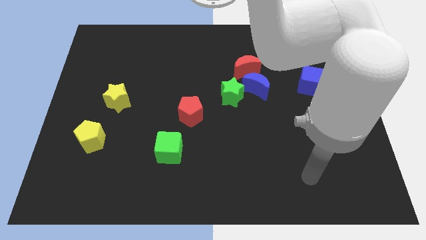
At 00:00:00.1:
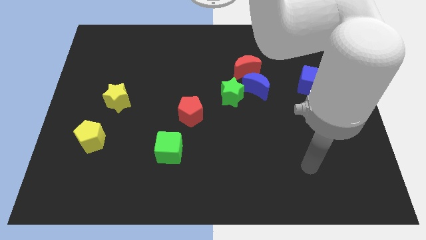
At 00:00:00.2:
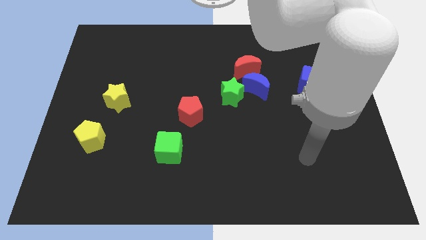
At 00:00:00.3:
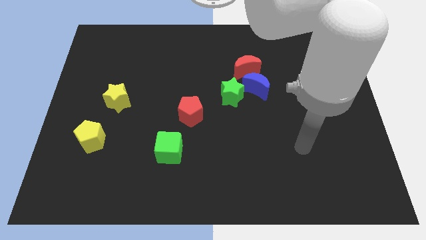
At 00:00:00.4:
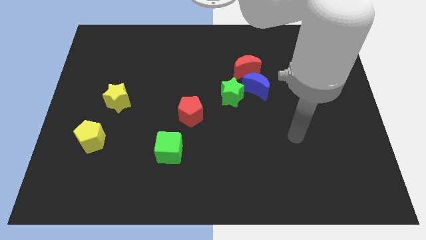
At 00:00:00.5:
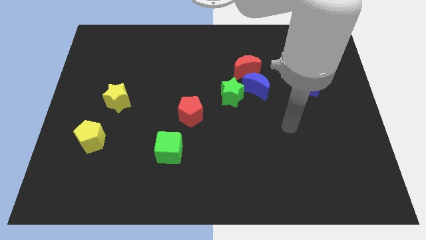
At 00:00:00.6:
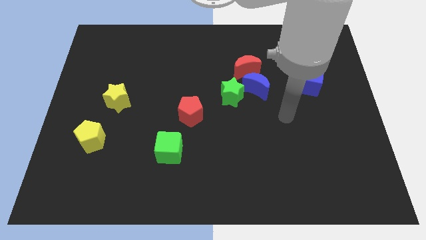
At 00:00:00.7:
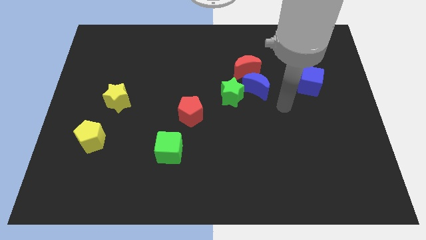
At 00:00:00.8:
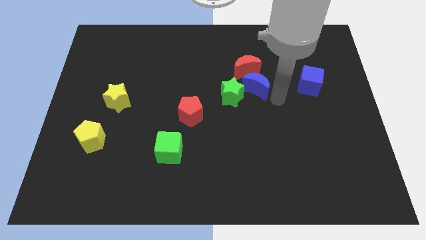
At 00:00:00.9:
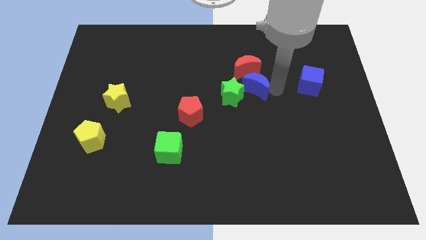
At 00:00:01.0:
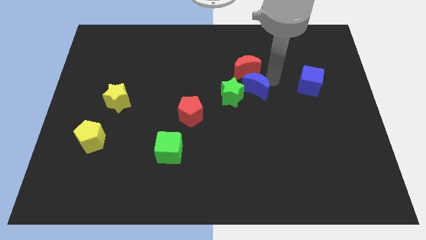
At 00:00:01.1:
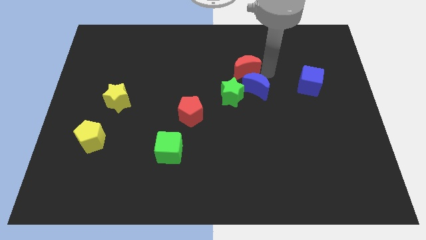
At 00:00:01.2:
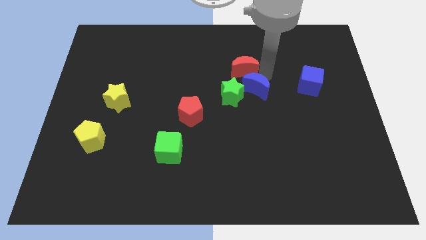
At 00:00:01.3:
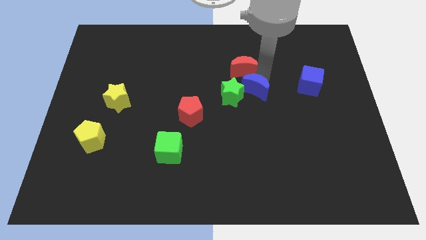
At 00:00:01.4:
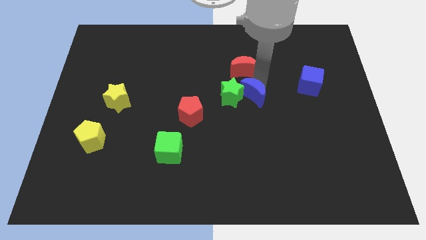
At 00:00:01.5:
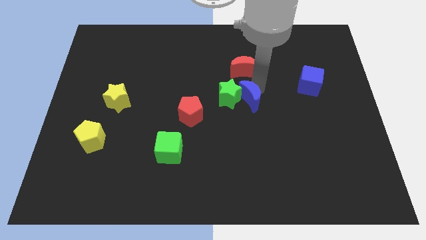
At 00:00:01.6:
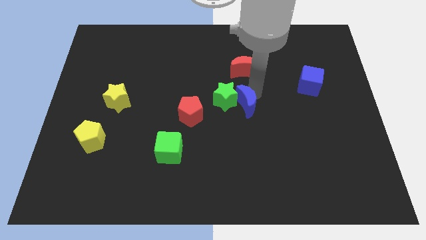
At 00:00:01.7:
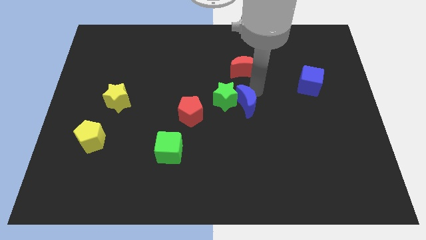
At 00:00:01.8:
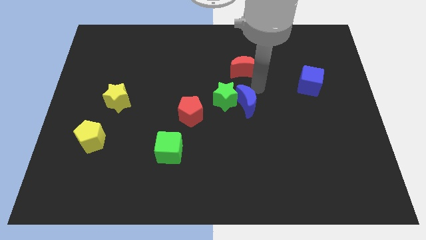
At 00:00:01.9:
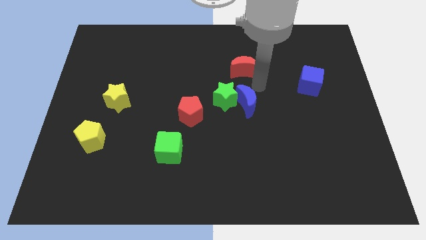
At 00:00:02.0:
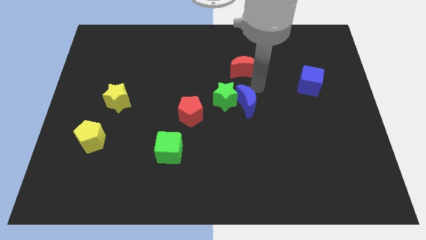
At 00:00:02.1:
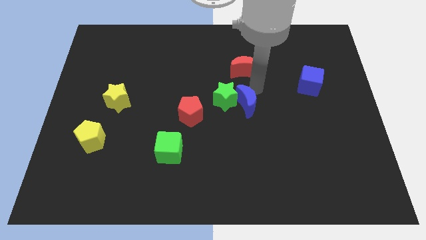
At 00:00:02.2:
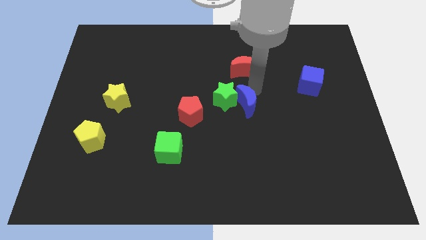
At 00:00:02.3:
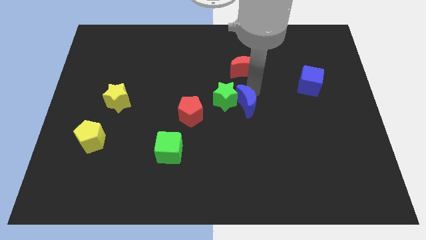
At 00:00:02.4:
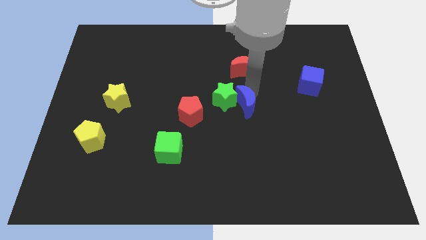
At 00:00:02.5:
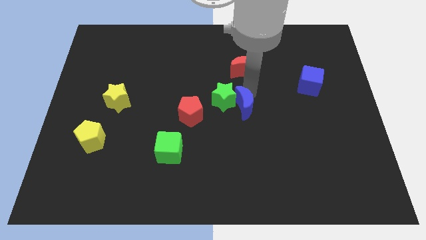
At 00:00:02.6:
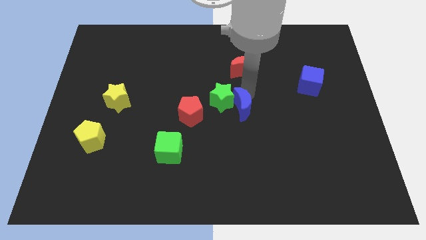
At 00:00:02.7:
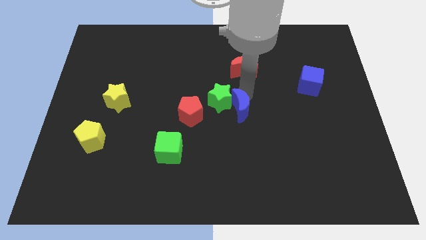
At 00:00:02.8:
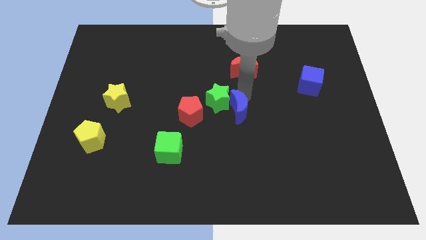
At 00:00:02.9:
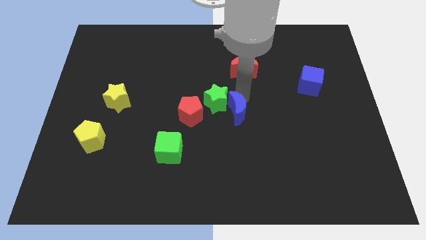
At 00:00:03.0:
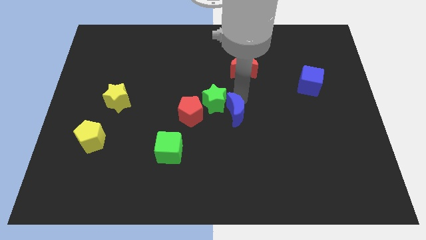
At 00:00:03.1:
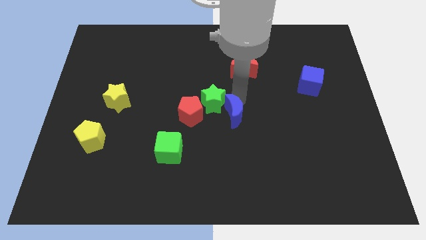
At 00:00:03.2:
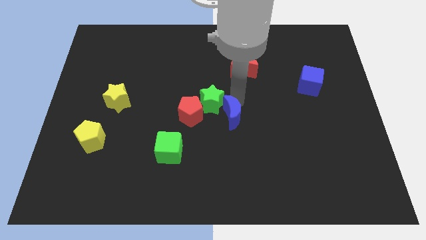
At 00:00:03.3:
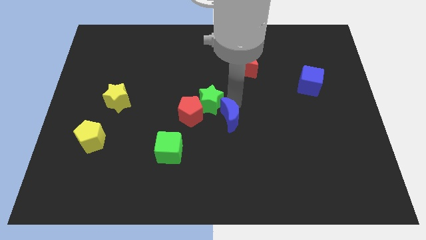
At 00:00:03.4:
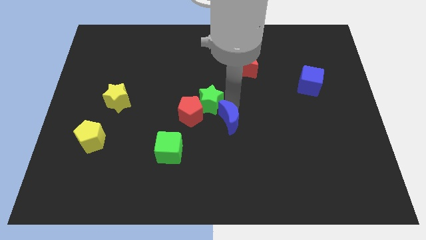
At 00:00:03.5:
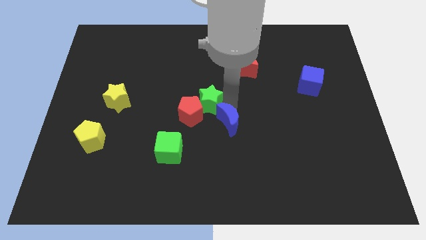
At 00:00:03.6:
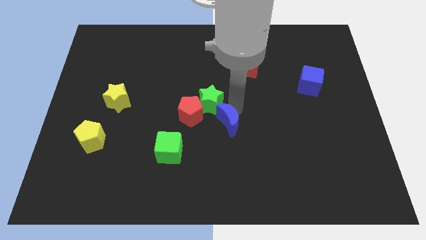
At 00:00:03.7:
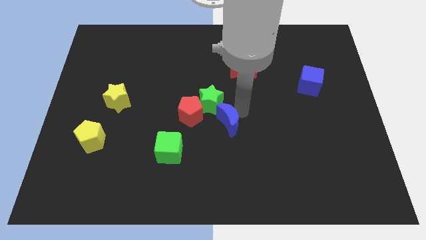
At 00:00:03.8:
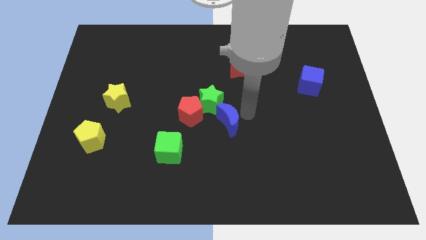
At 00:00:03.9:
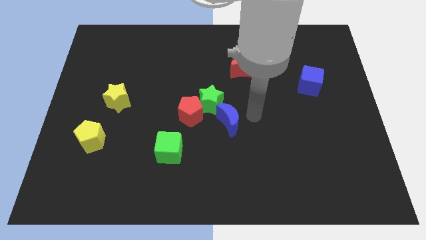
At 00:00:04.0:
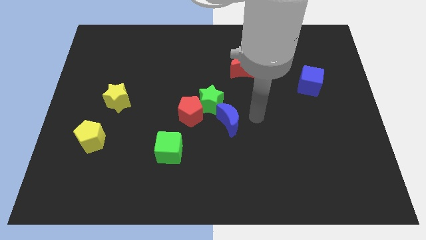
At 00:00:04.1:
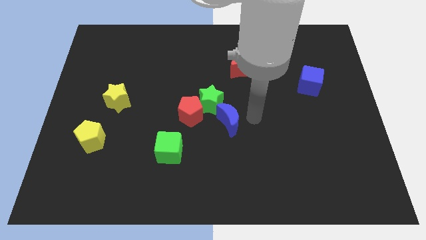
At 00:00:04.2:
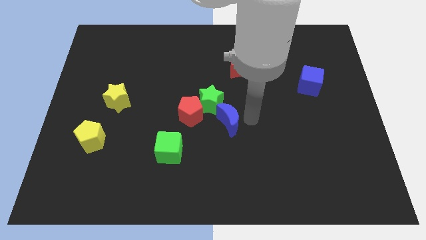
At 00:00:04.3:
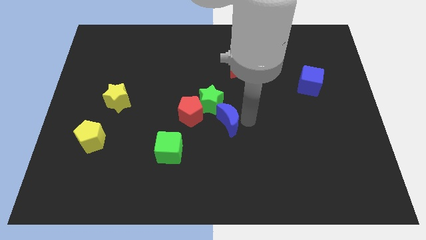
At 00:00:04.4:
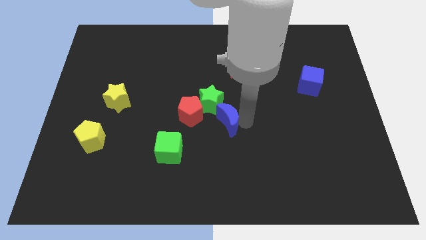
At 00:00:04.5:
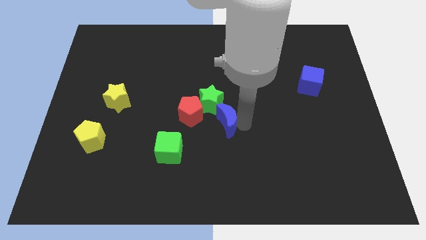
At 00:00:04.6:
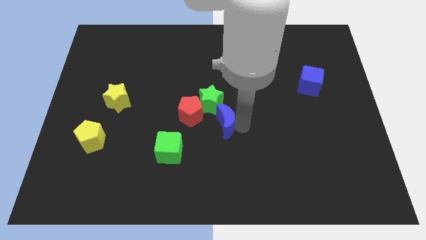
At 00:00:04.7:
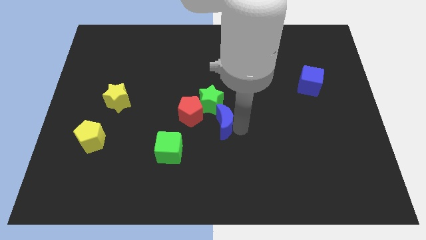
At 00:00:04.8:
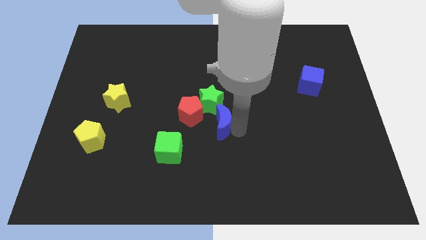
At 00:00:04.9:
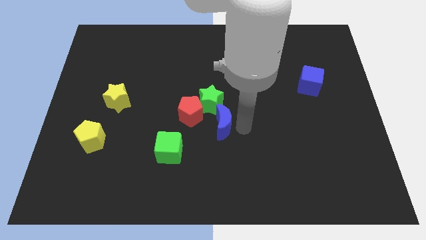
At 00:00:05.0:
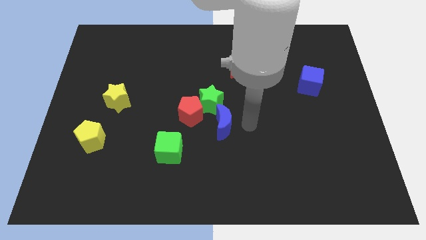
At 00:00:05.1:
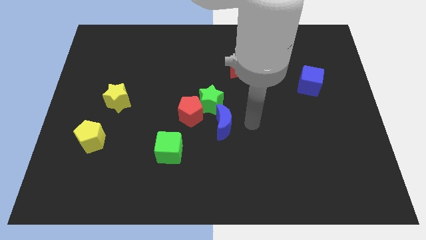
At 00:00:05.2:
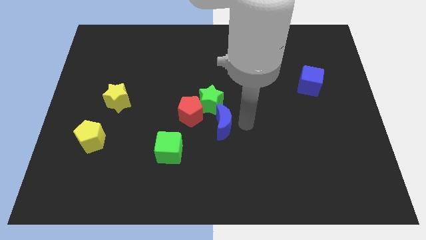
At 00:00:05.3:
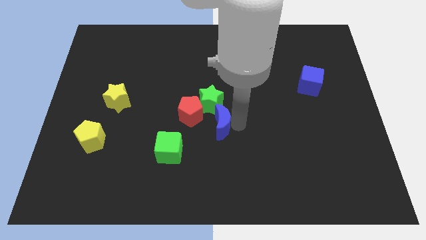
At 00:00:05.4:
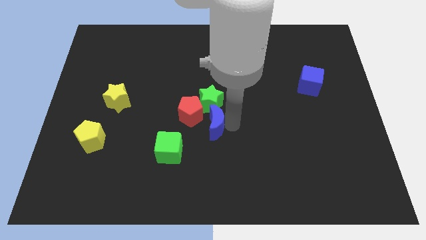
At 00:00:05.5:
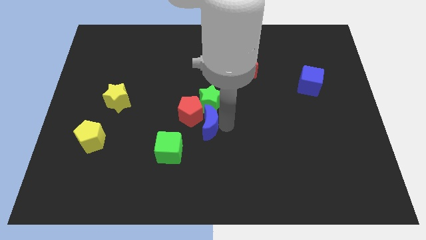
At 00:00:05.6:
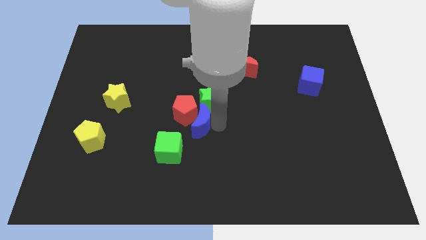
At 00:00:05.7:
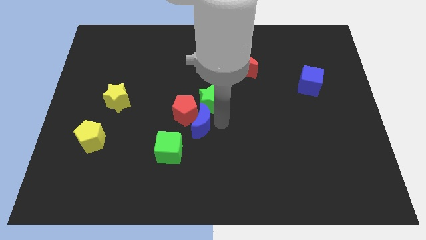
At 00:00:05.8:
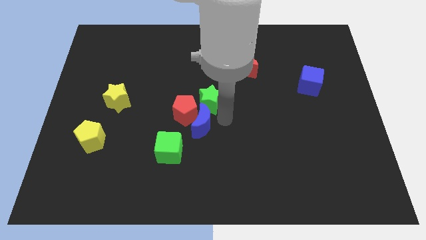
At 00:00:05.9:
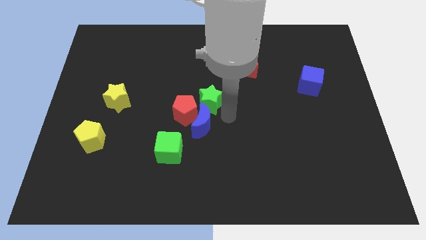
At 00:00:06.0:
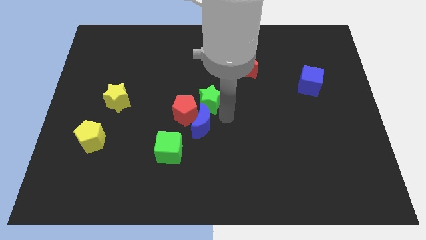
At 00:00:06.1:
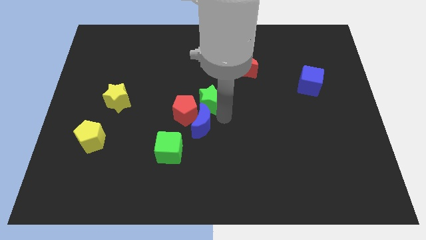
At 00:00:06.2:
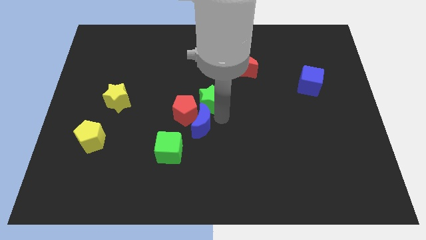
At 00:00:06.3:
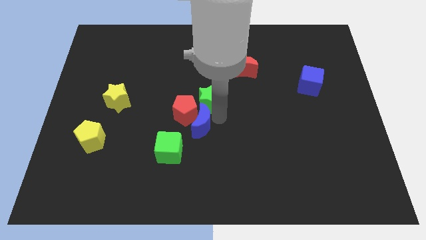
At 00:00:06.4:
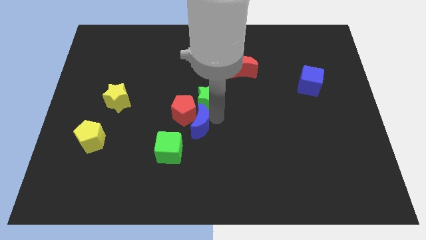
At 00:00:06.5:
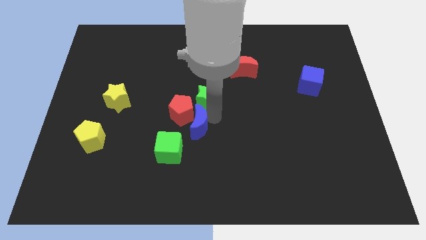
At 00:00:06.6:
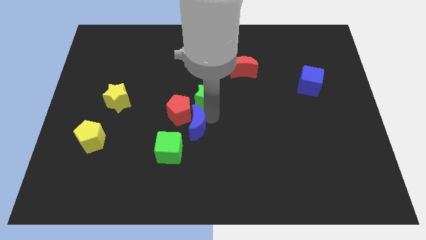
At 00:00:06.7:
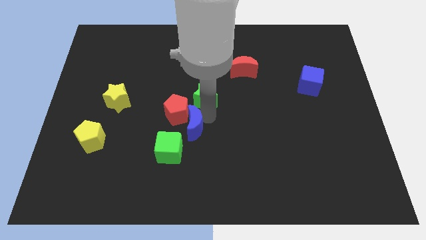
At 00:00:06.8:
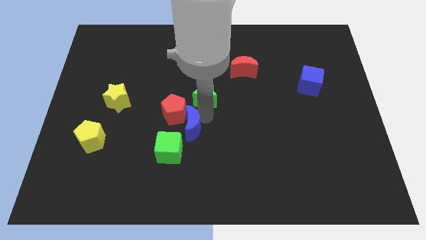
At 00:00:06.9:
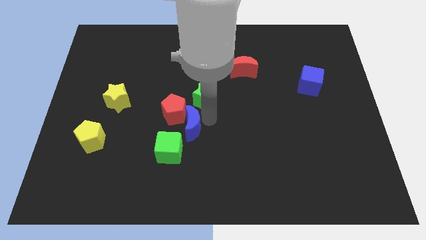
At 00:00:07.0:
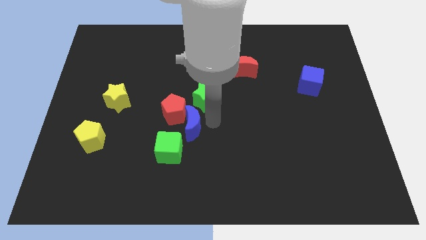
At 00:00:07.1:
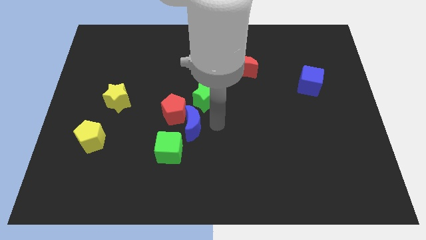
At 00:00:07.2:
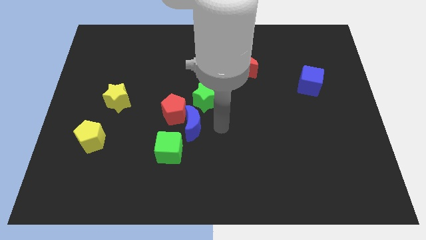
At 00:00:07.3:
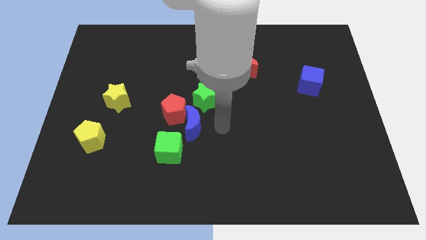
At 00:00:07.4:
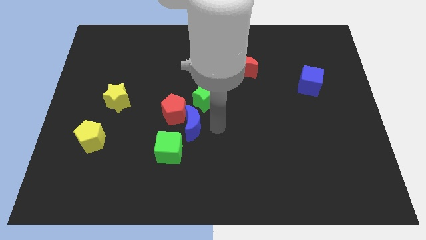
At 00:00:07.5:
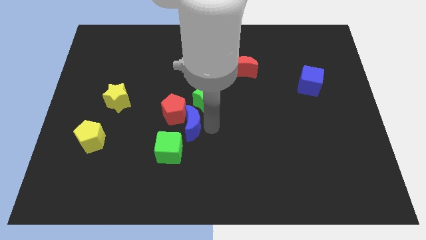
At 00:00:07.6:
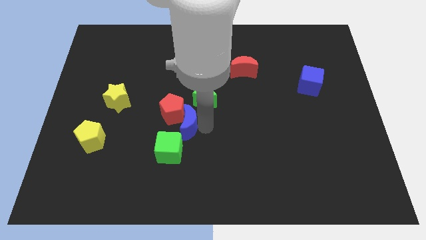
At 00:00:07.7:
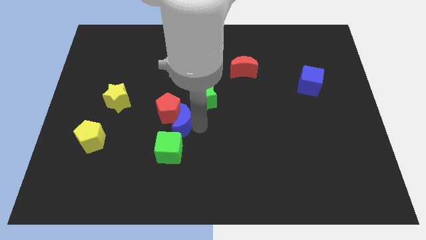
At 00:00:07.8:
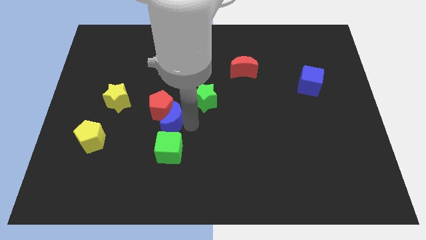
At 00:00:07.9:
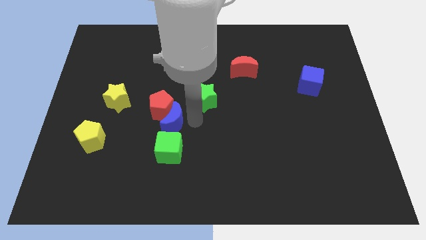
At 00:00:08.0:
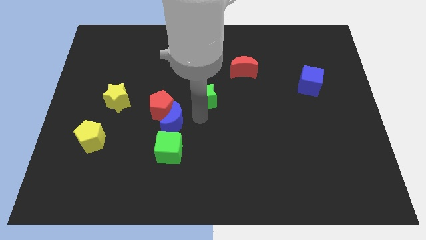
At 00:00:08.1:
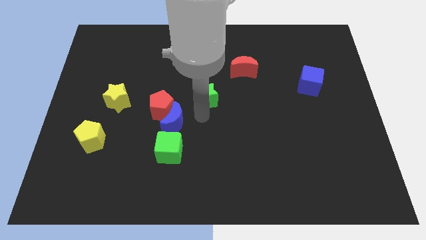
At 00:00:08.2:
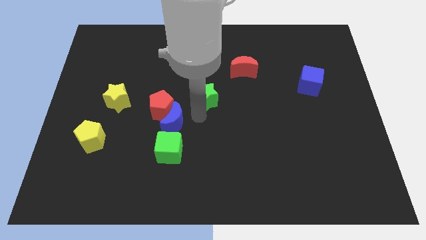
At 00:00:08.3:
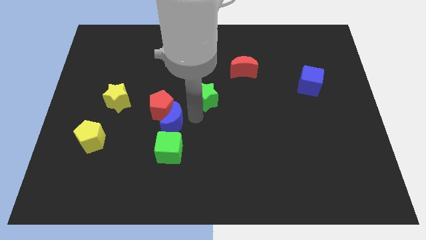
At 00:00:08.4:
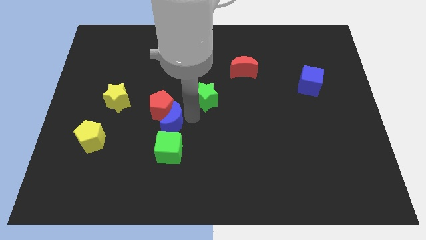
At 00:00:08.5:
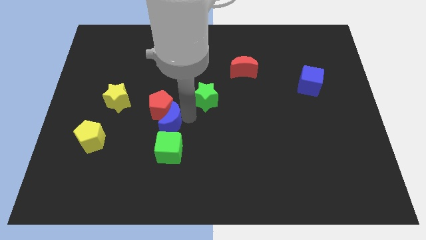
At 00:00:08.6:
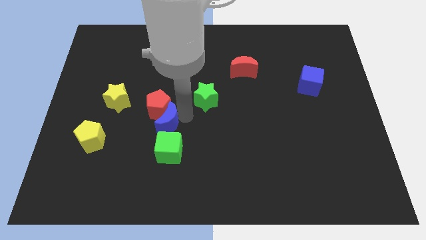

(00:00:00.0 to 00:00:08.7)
move the blue moon to the top left of the green cube
